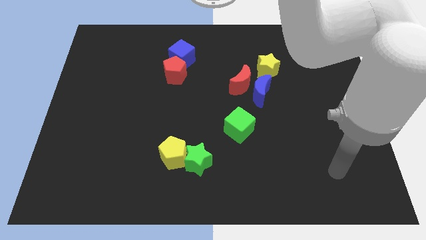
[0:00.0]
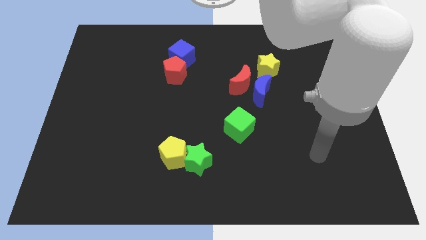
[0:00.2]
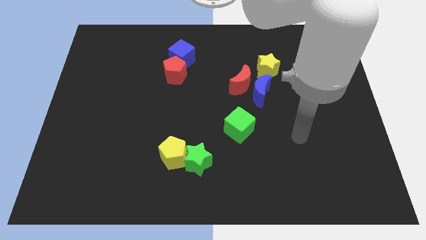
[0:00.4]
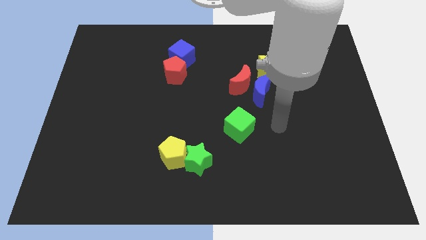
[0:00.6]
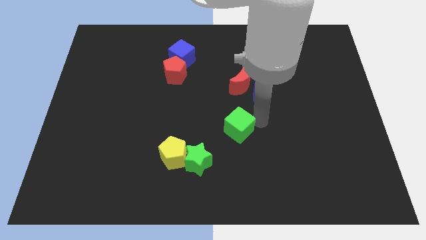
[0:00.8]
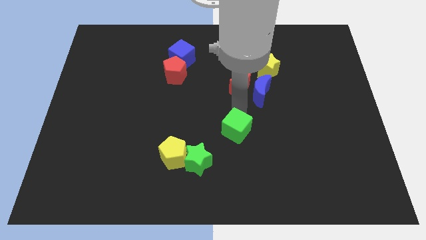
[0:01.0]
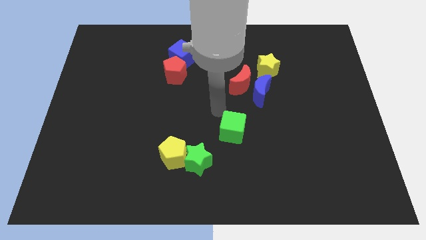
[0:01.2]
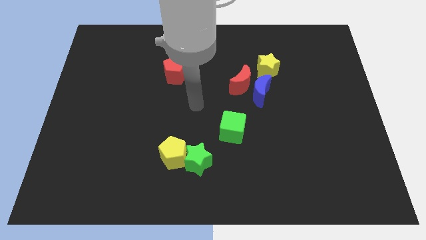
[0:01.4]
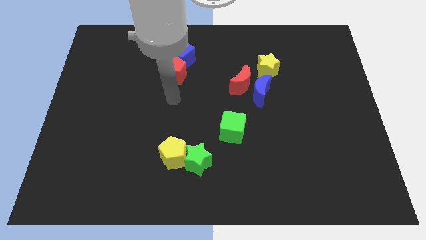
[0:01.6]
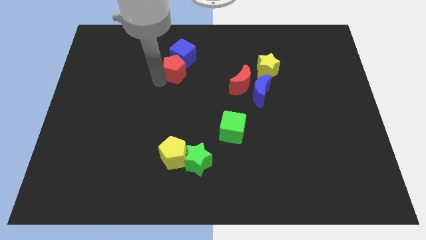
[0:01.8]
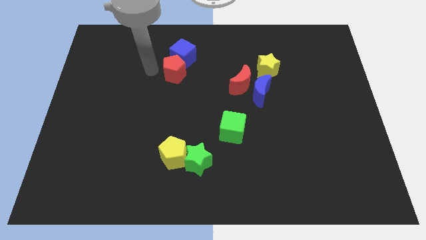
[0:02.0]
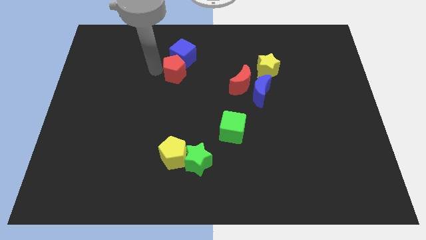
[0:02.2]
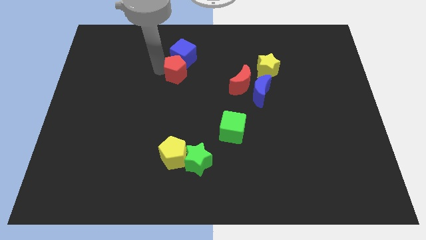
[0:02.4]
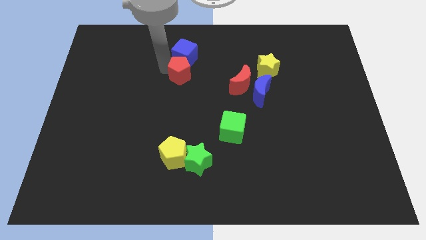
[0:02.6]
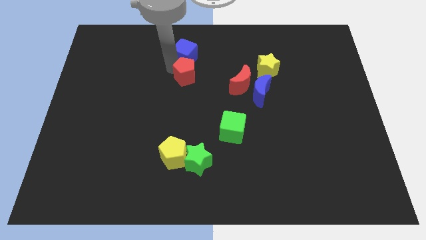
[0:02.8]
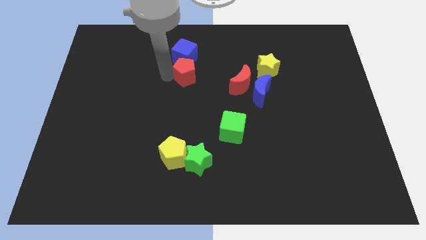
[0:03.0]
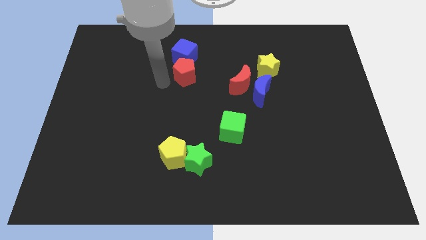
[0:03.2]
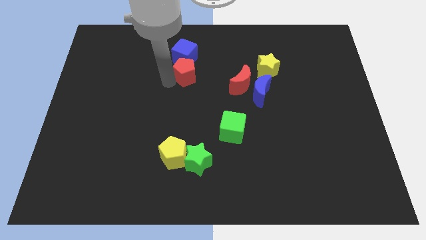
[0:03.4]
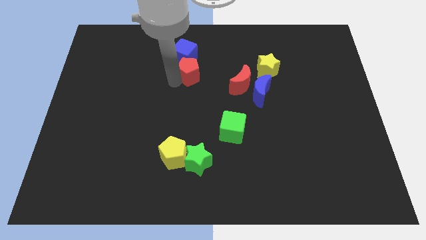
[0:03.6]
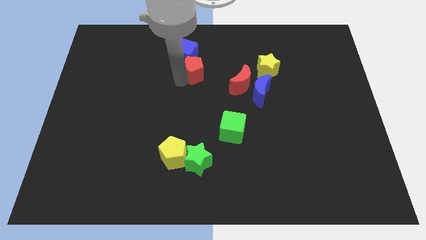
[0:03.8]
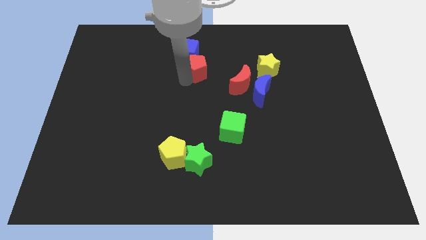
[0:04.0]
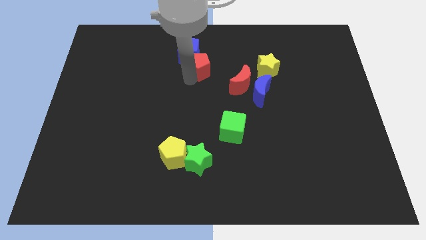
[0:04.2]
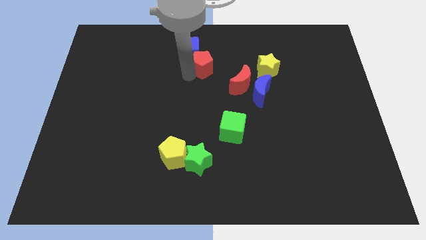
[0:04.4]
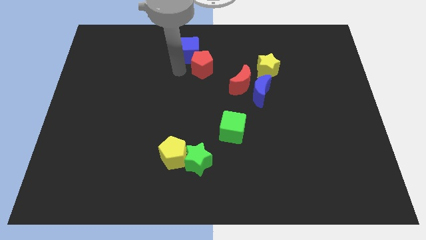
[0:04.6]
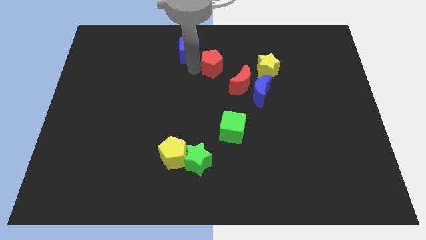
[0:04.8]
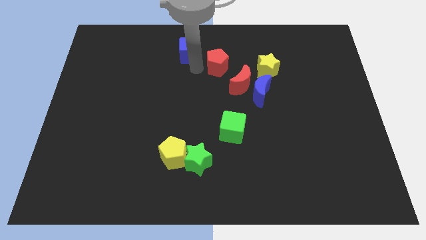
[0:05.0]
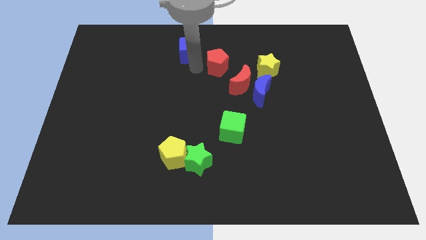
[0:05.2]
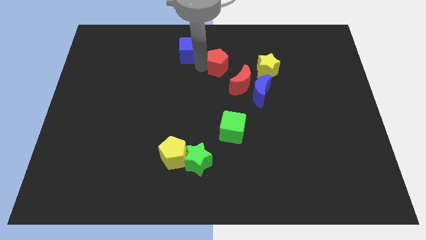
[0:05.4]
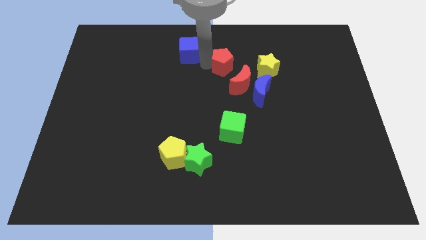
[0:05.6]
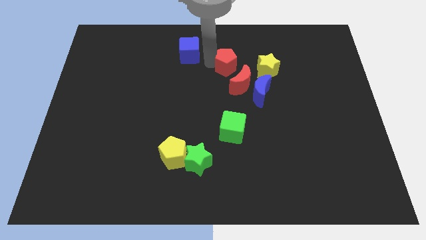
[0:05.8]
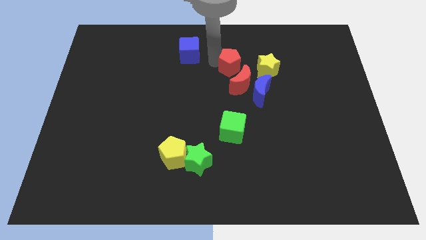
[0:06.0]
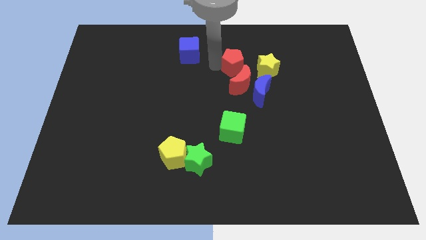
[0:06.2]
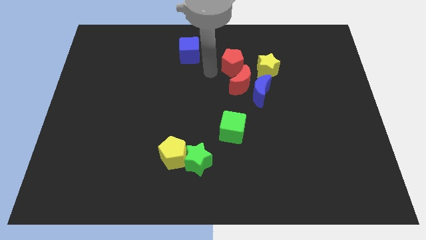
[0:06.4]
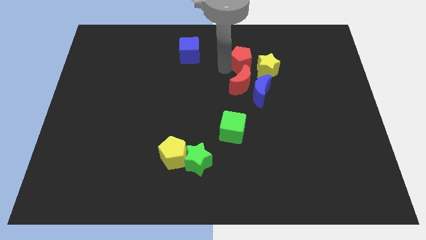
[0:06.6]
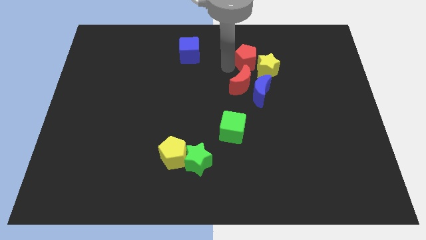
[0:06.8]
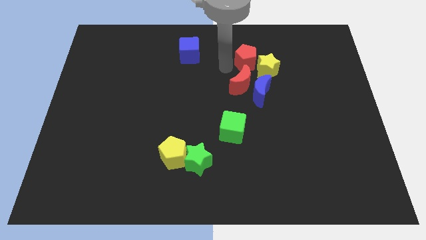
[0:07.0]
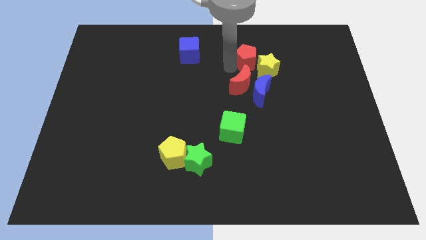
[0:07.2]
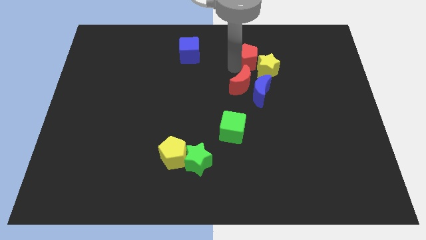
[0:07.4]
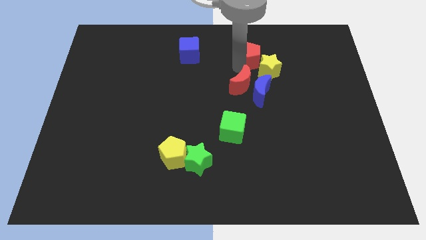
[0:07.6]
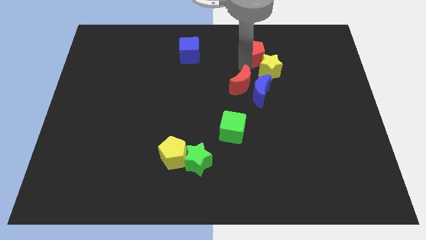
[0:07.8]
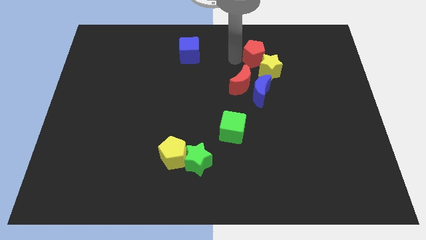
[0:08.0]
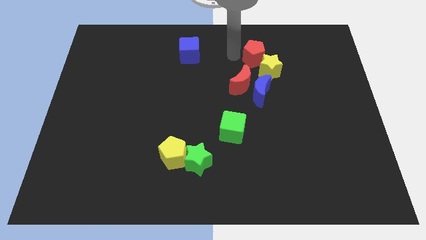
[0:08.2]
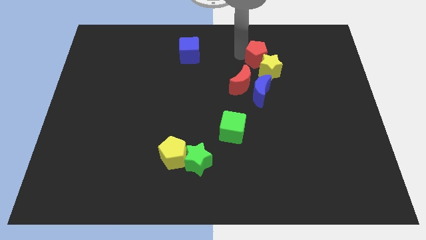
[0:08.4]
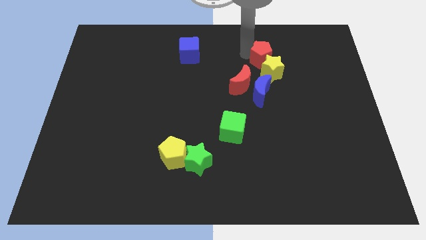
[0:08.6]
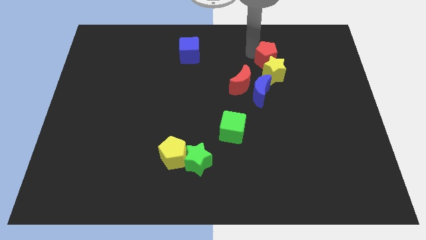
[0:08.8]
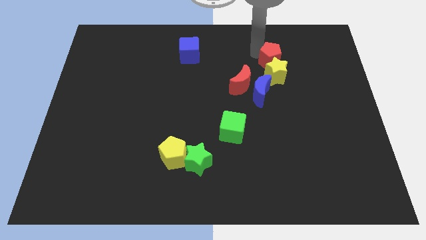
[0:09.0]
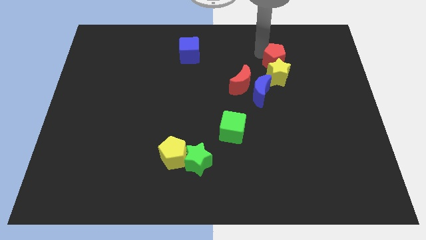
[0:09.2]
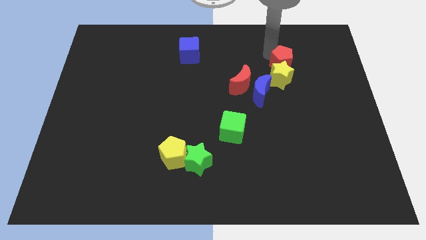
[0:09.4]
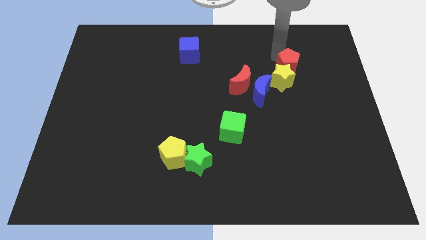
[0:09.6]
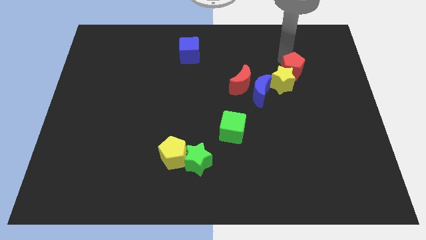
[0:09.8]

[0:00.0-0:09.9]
put the red pentagon just right of the yellow star

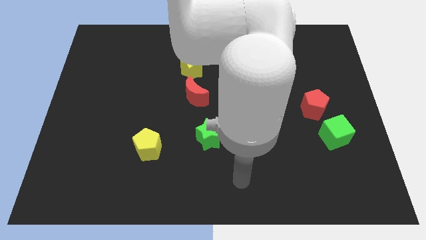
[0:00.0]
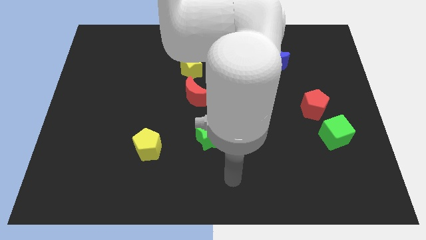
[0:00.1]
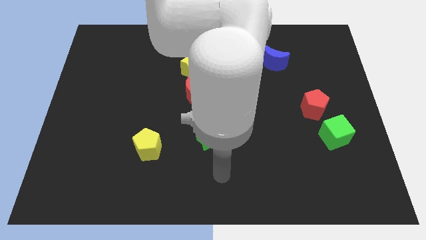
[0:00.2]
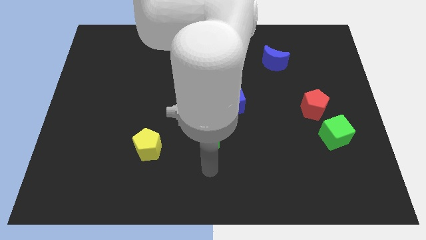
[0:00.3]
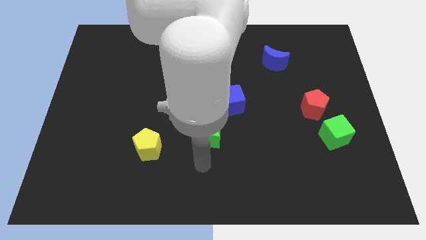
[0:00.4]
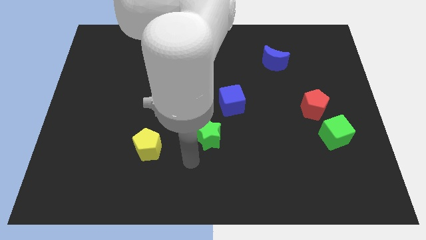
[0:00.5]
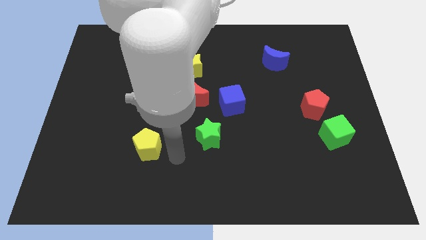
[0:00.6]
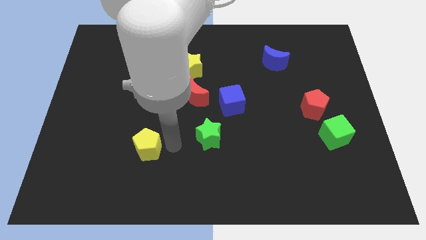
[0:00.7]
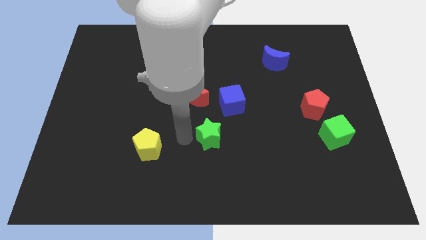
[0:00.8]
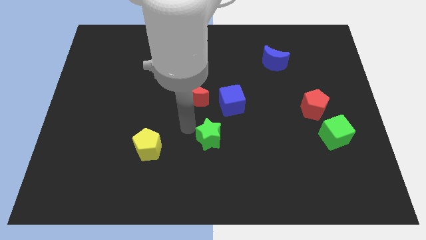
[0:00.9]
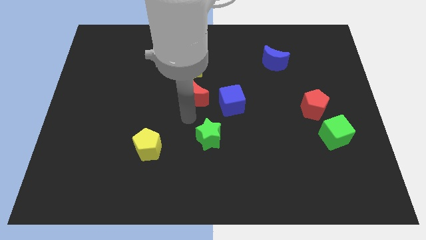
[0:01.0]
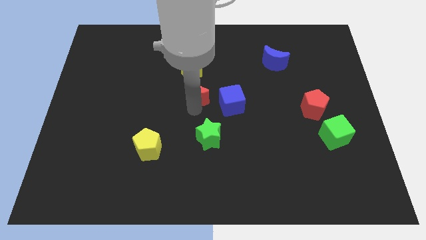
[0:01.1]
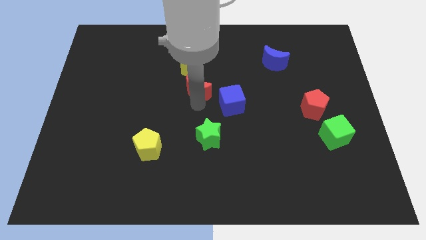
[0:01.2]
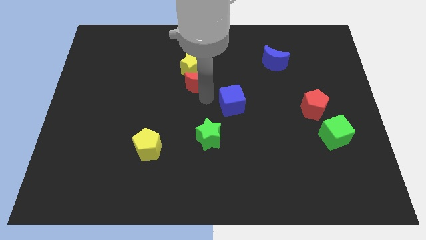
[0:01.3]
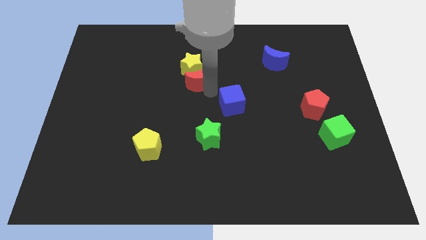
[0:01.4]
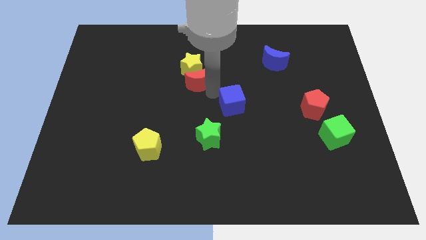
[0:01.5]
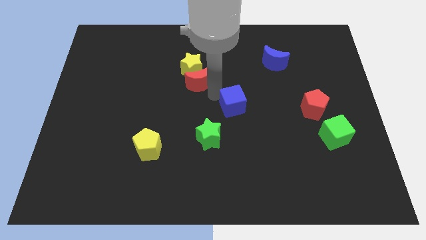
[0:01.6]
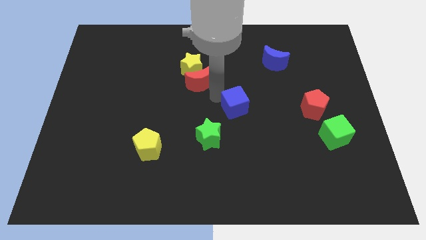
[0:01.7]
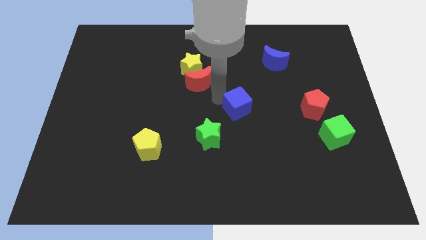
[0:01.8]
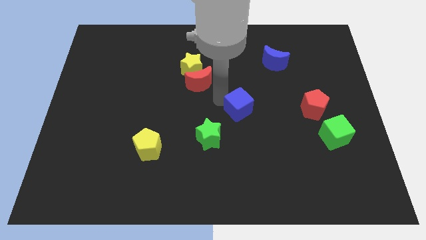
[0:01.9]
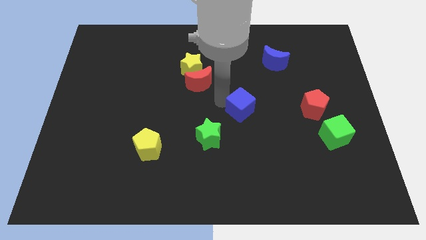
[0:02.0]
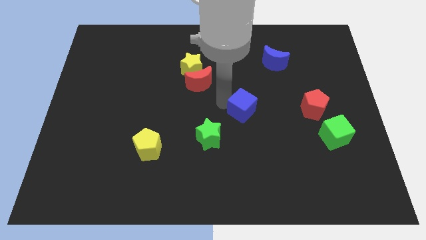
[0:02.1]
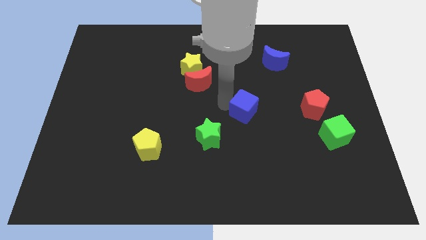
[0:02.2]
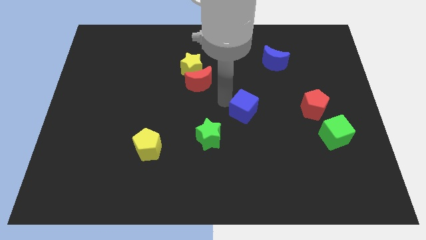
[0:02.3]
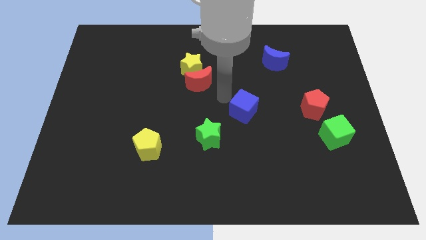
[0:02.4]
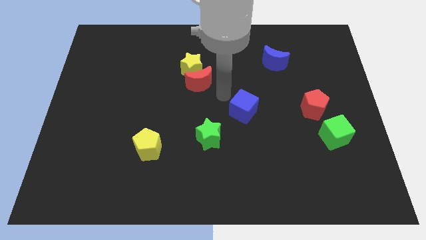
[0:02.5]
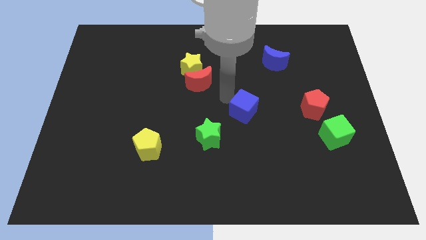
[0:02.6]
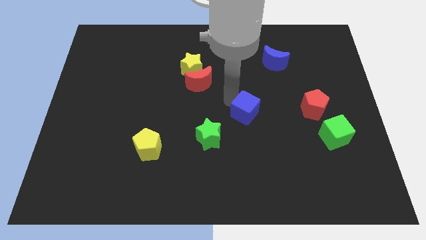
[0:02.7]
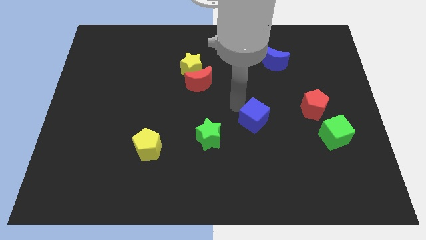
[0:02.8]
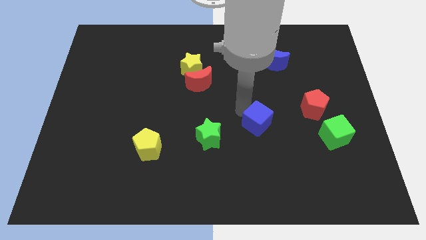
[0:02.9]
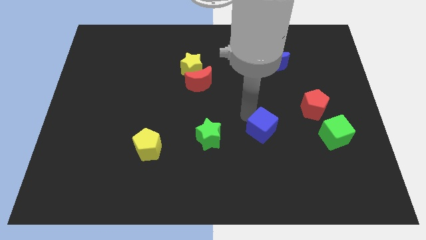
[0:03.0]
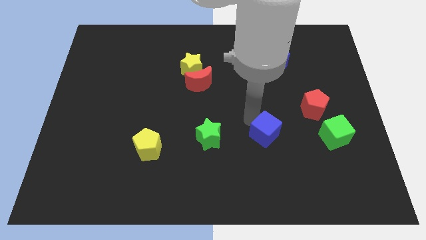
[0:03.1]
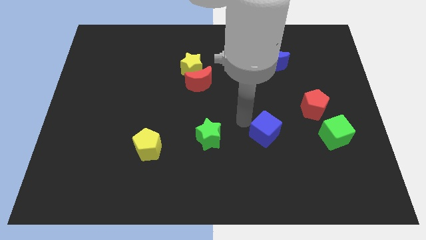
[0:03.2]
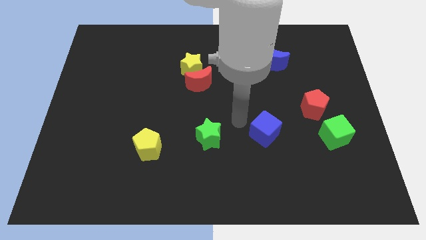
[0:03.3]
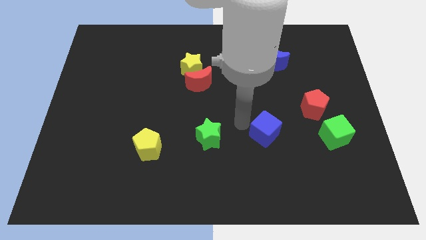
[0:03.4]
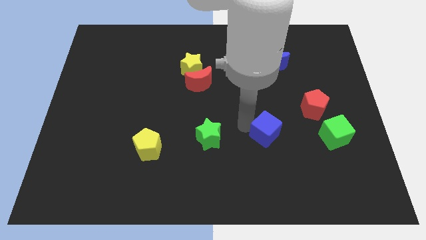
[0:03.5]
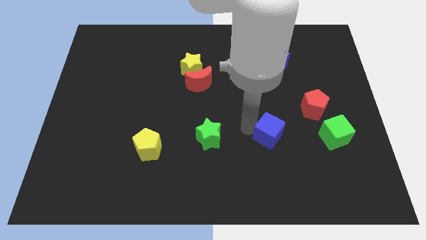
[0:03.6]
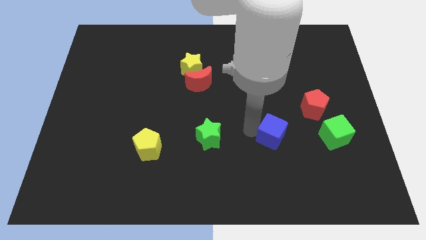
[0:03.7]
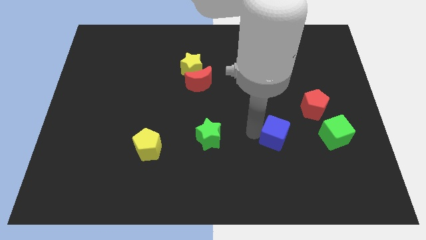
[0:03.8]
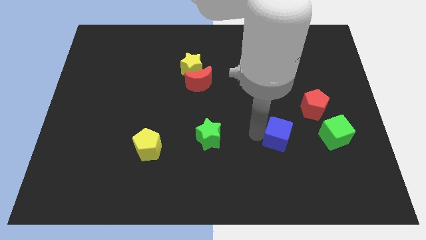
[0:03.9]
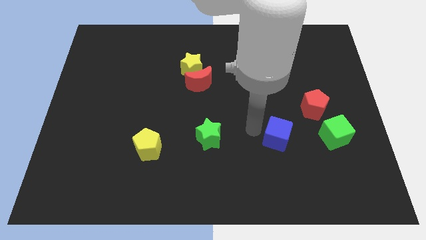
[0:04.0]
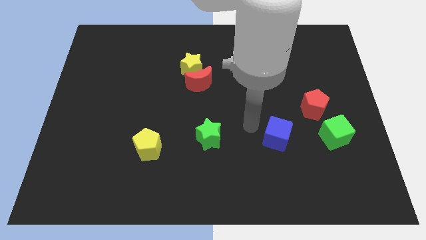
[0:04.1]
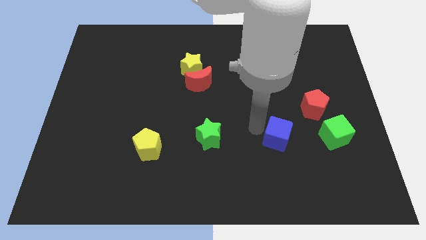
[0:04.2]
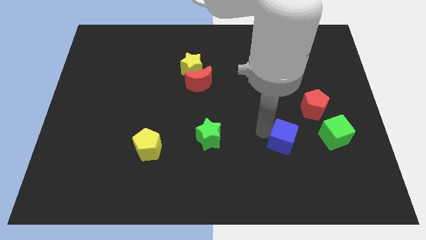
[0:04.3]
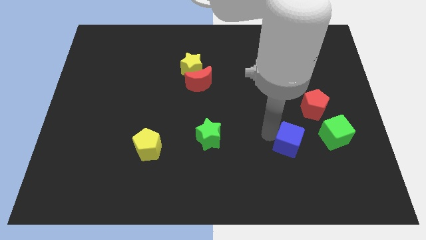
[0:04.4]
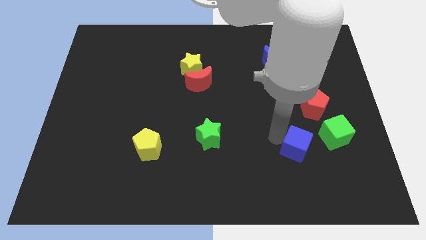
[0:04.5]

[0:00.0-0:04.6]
put the blue cube to the bottom left of the green cube
